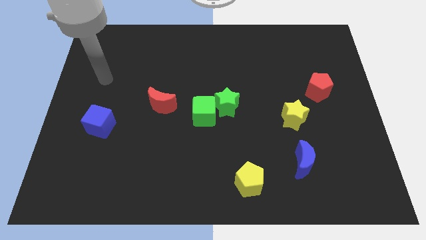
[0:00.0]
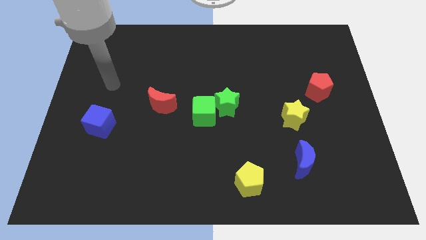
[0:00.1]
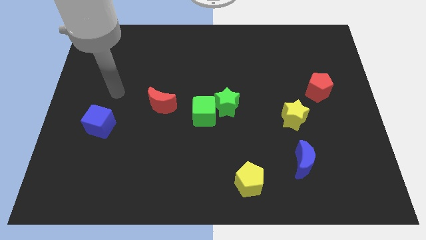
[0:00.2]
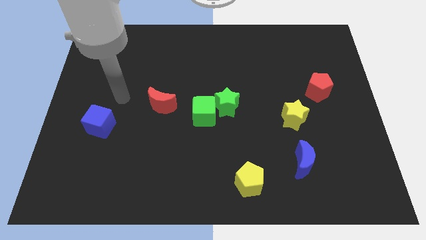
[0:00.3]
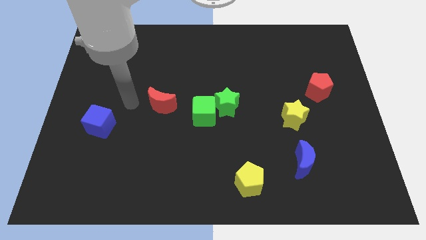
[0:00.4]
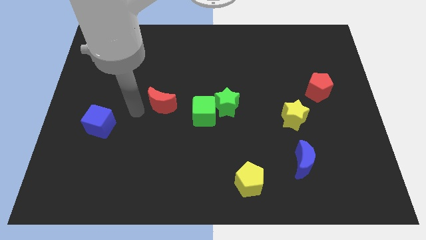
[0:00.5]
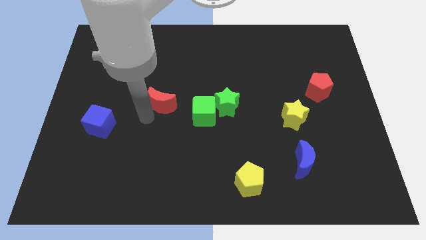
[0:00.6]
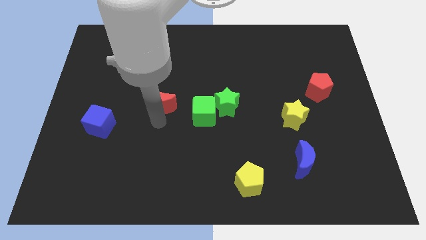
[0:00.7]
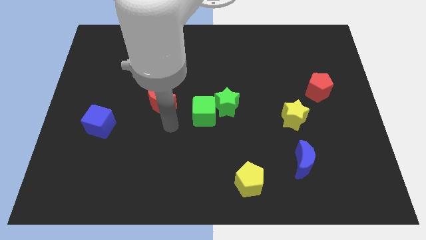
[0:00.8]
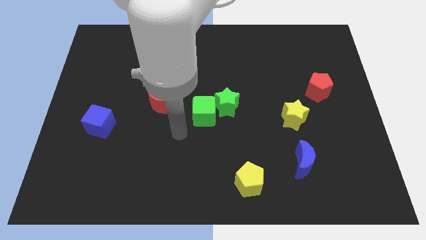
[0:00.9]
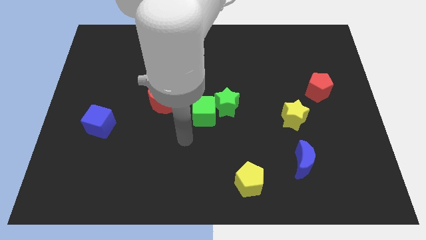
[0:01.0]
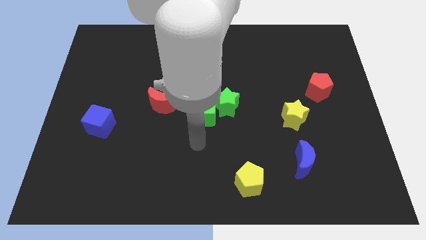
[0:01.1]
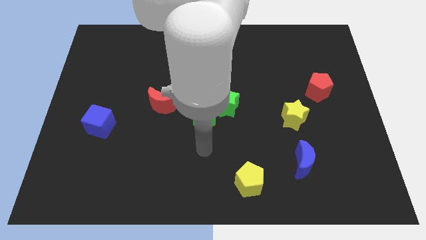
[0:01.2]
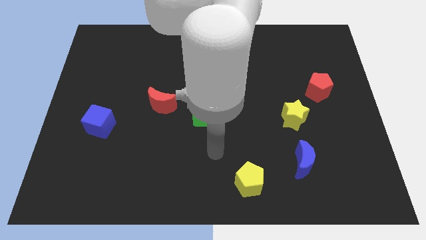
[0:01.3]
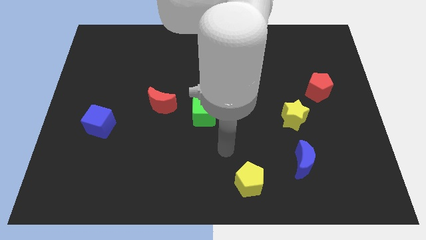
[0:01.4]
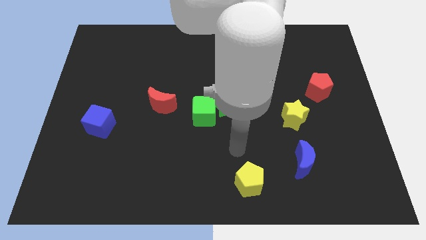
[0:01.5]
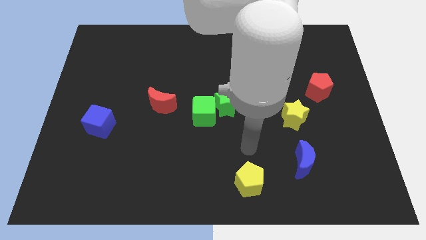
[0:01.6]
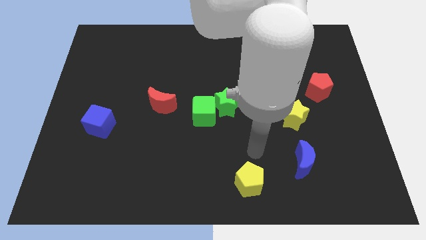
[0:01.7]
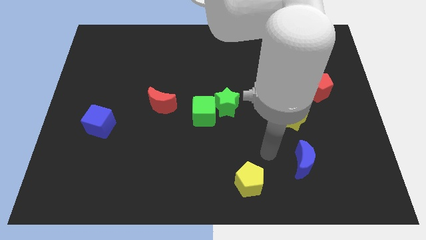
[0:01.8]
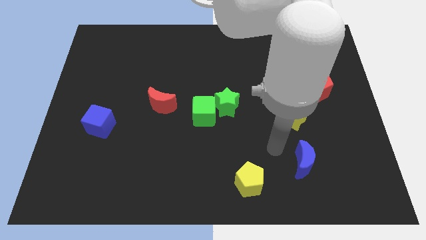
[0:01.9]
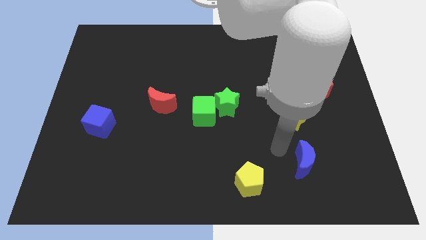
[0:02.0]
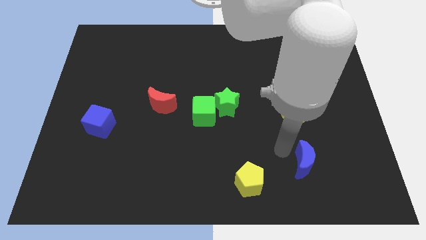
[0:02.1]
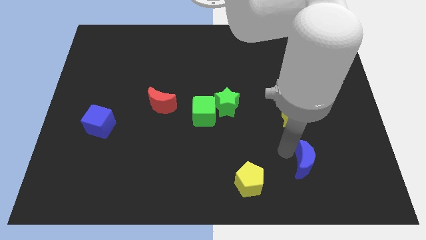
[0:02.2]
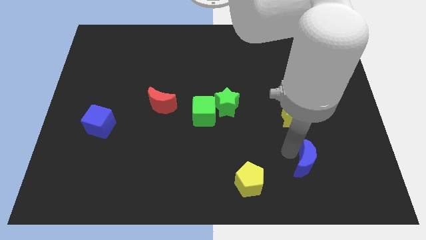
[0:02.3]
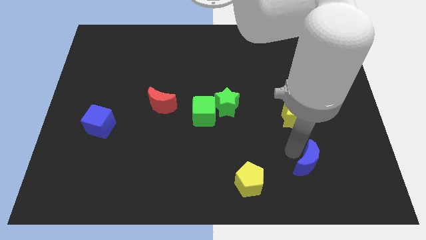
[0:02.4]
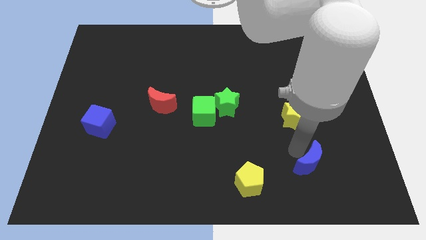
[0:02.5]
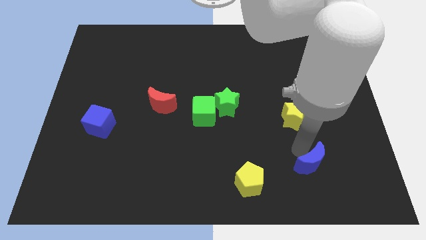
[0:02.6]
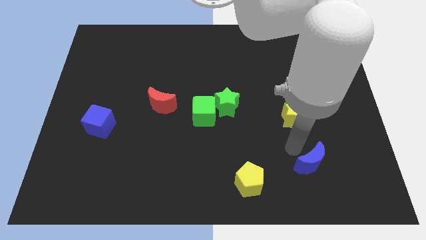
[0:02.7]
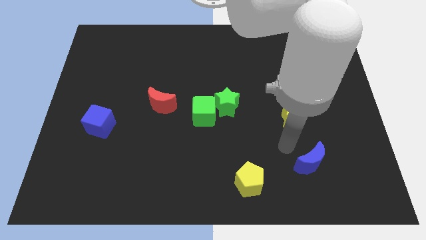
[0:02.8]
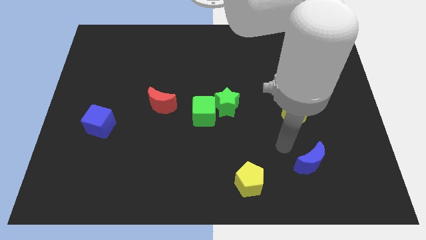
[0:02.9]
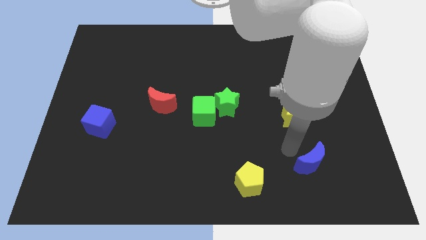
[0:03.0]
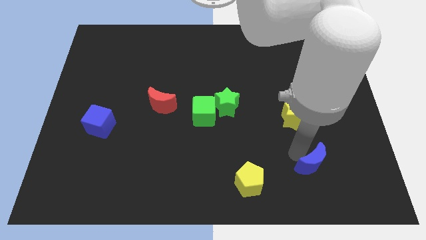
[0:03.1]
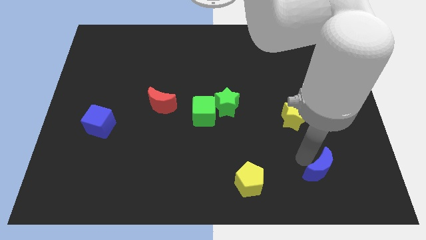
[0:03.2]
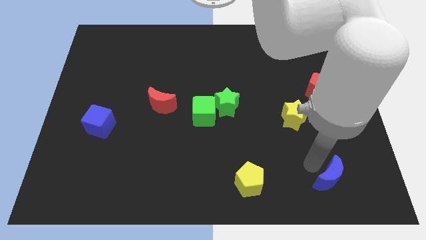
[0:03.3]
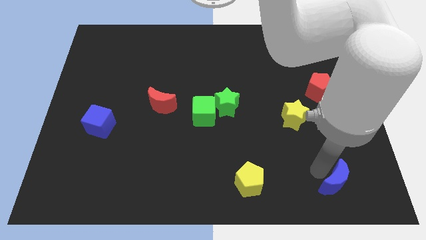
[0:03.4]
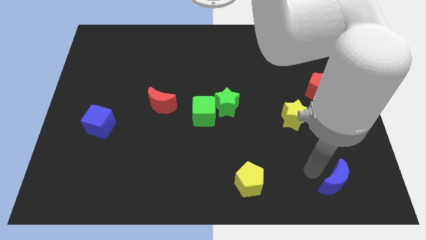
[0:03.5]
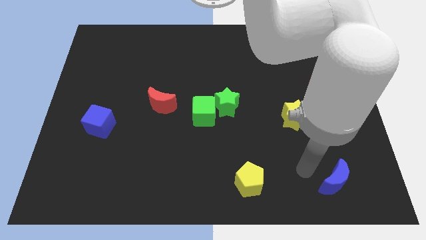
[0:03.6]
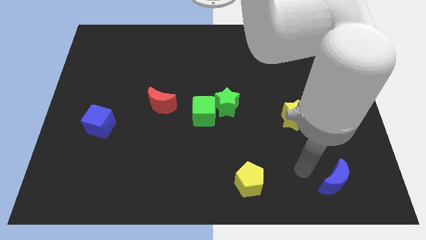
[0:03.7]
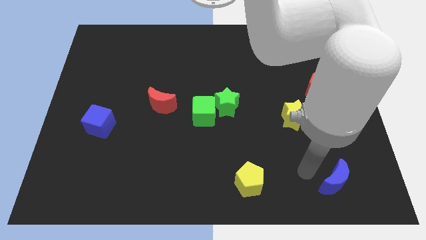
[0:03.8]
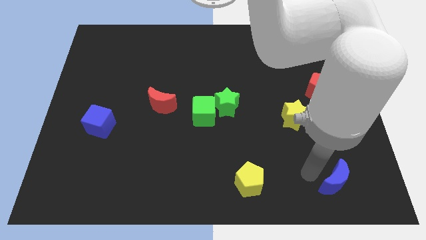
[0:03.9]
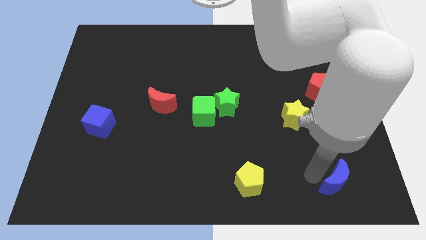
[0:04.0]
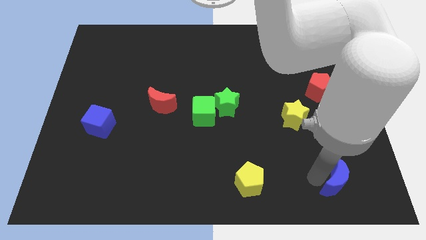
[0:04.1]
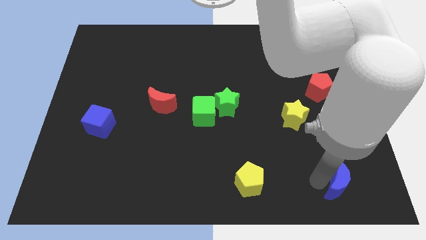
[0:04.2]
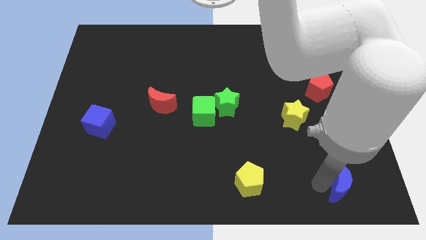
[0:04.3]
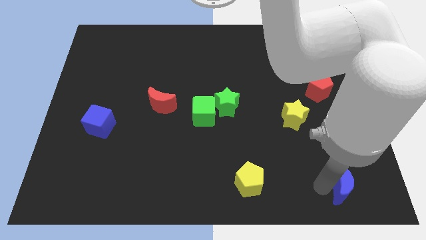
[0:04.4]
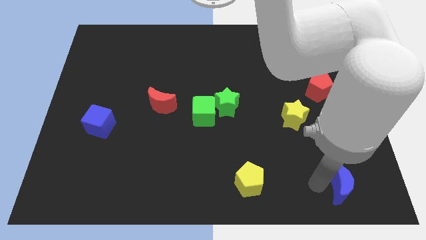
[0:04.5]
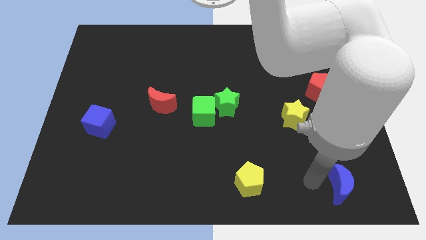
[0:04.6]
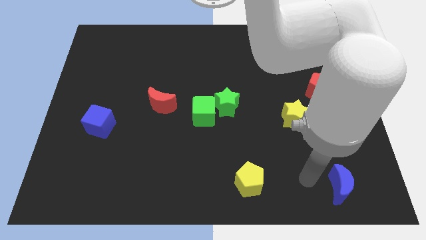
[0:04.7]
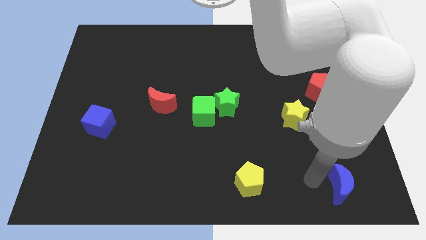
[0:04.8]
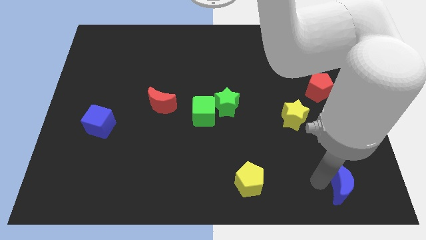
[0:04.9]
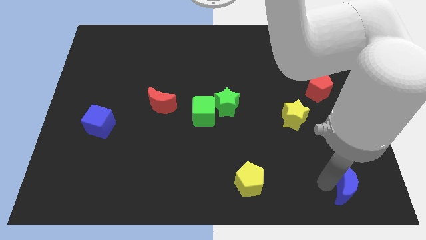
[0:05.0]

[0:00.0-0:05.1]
put the blue moon to the lower right corner

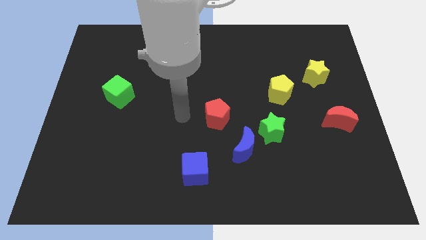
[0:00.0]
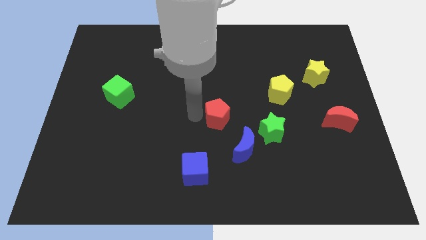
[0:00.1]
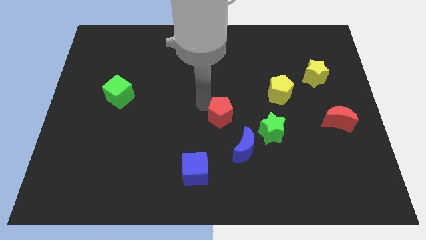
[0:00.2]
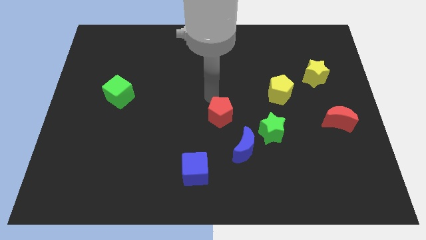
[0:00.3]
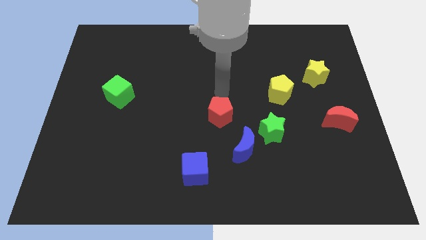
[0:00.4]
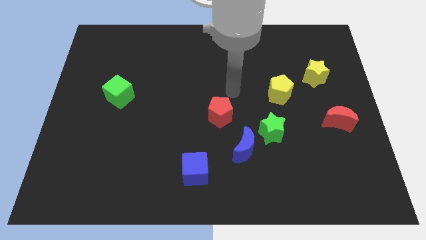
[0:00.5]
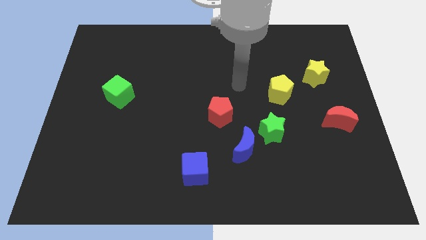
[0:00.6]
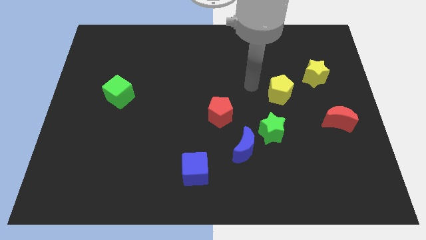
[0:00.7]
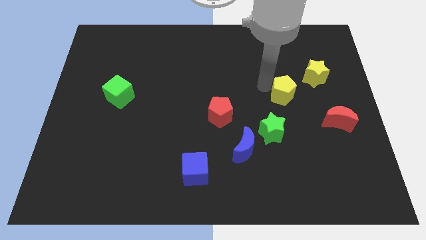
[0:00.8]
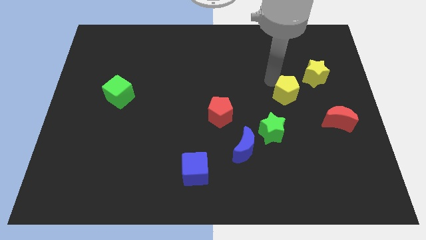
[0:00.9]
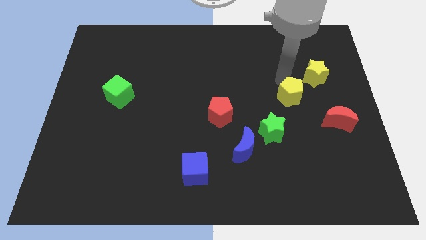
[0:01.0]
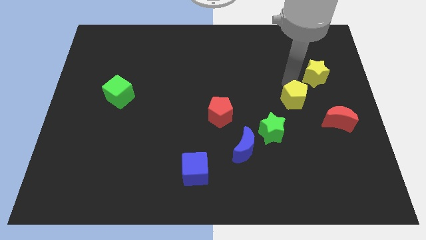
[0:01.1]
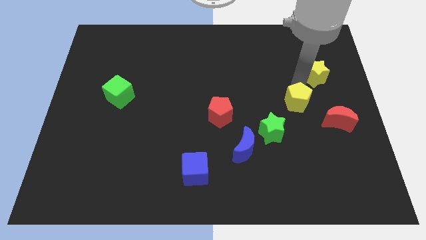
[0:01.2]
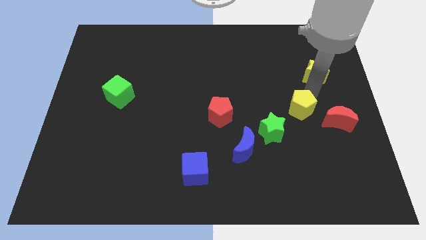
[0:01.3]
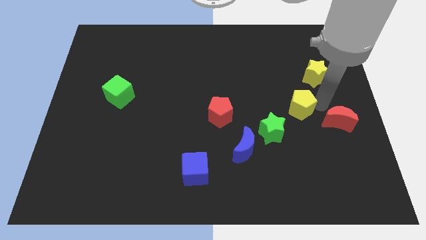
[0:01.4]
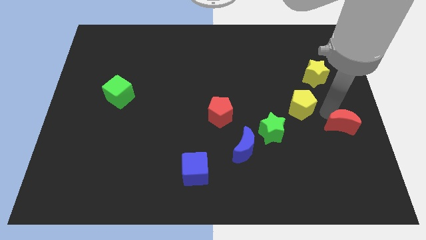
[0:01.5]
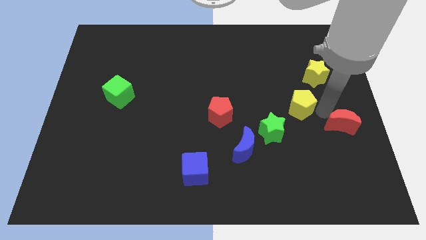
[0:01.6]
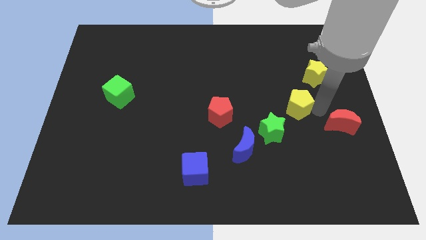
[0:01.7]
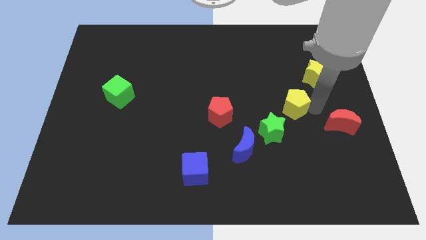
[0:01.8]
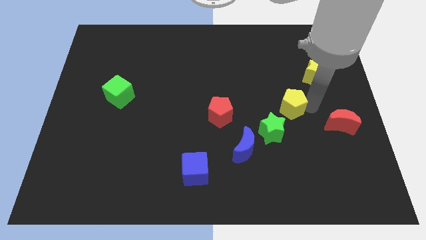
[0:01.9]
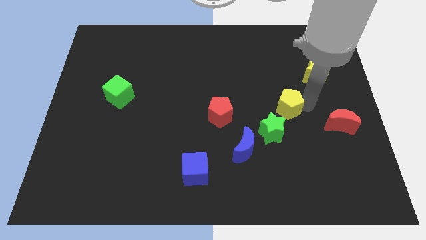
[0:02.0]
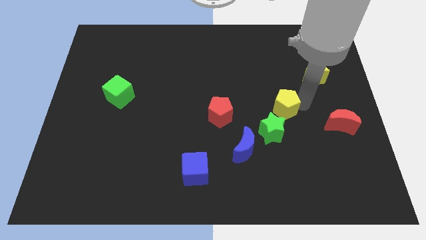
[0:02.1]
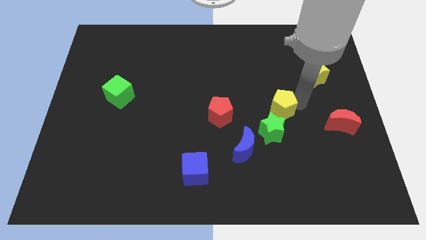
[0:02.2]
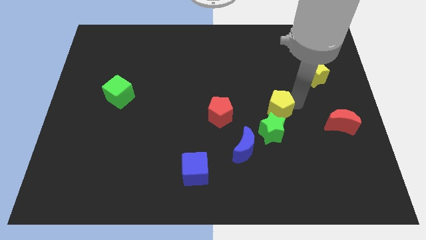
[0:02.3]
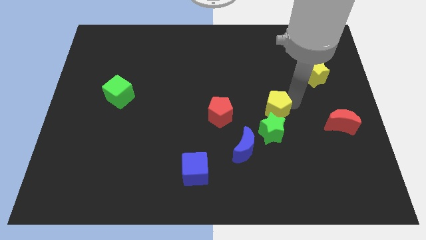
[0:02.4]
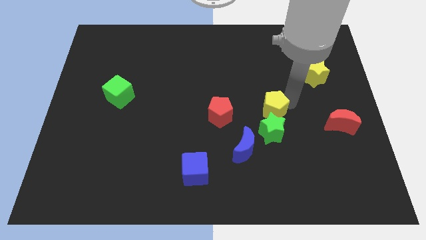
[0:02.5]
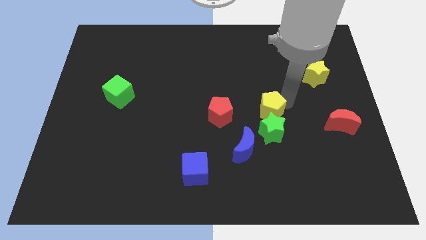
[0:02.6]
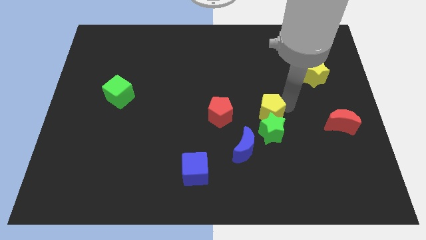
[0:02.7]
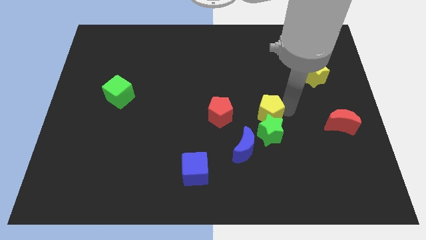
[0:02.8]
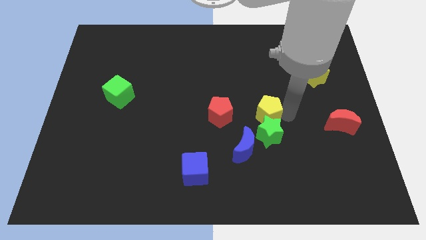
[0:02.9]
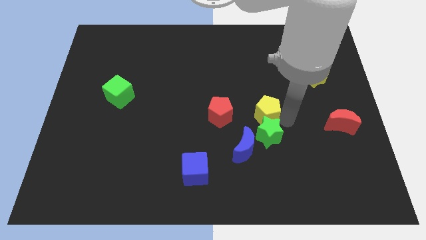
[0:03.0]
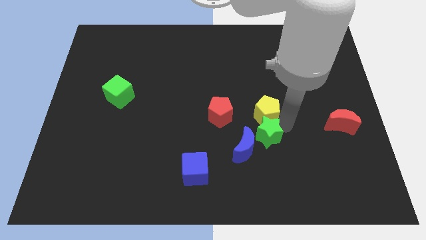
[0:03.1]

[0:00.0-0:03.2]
put the yellow pentagon to the middle of the board
